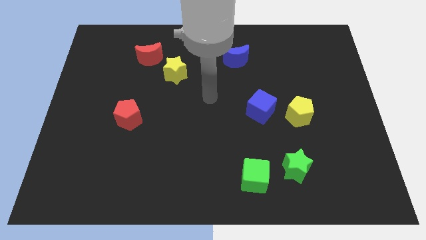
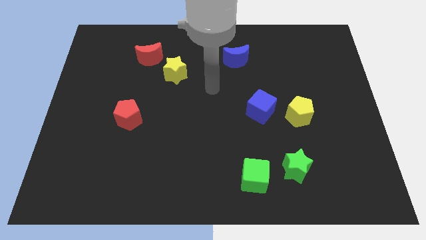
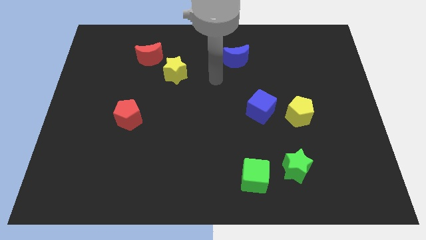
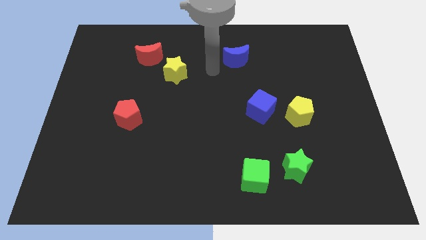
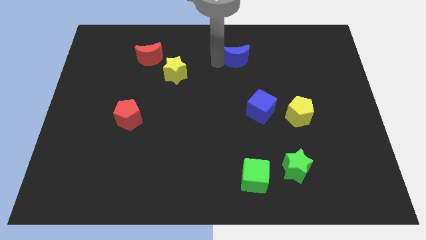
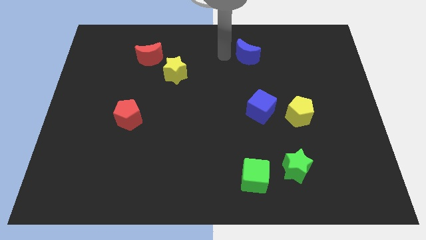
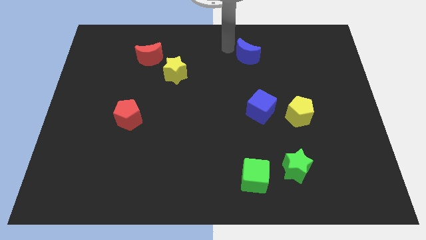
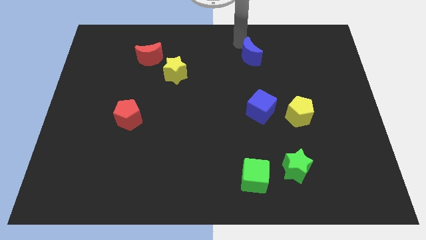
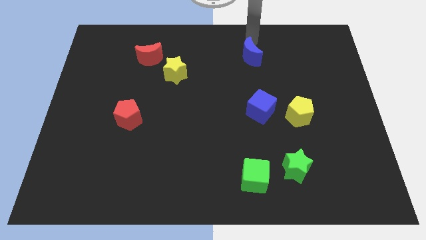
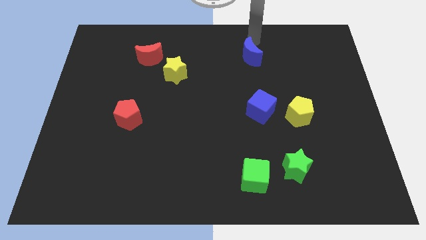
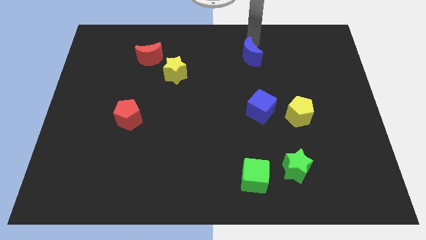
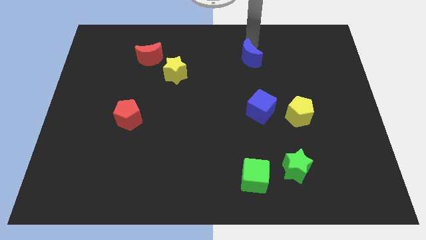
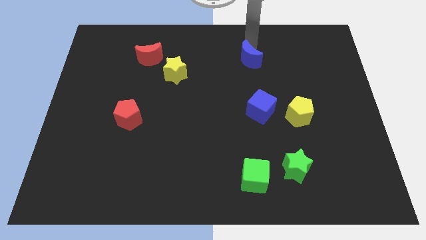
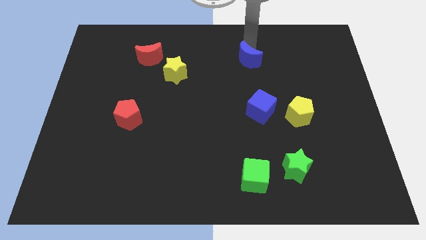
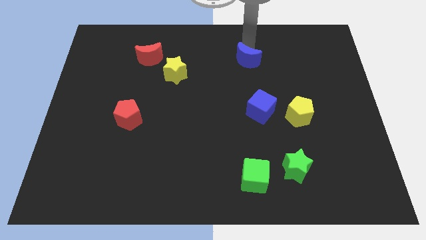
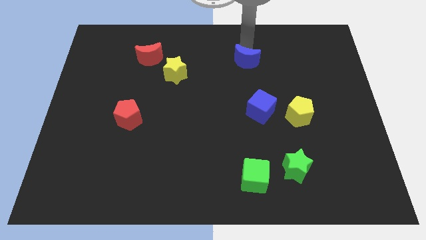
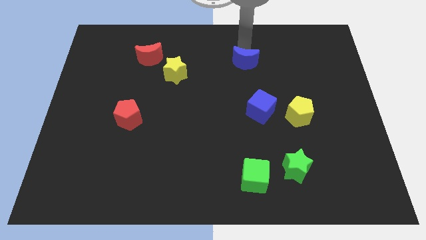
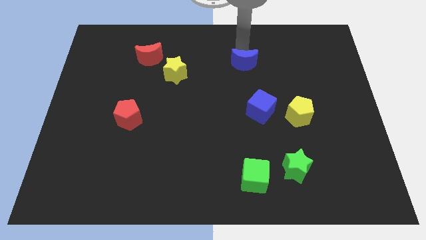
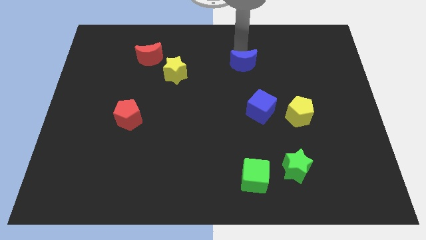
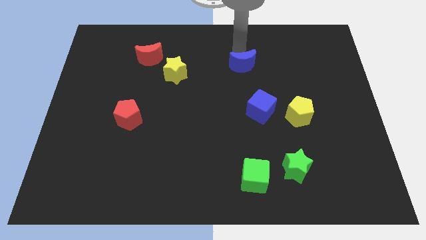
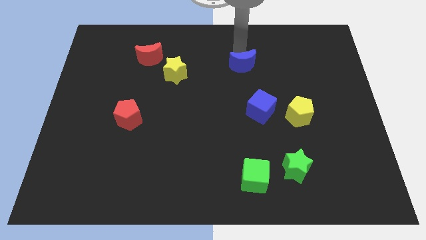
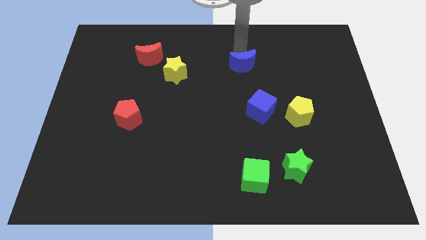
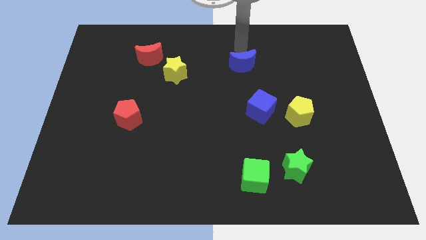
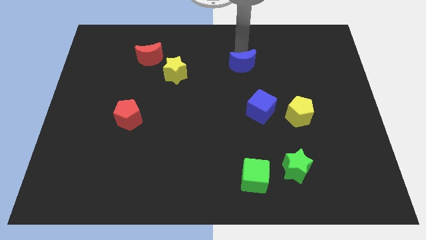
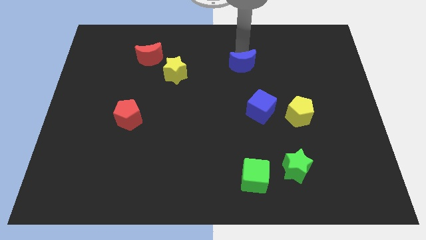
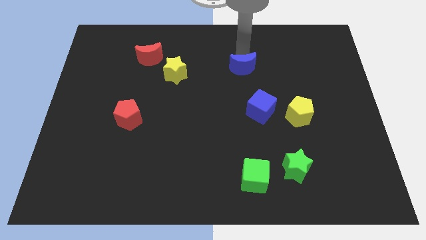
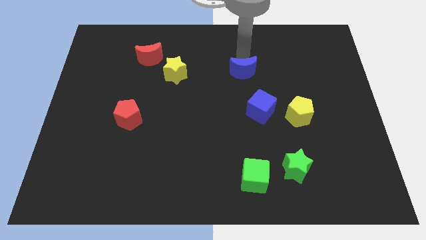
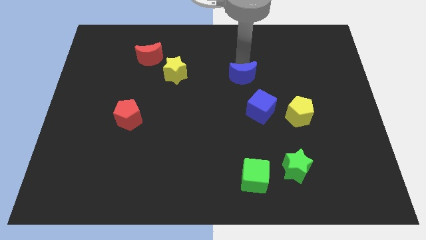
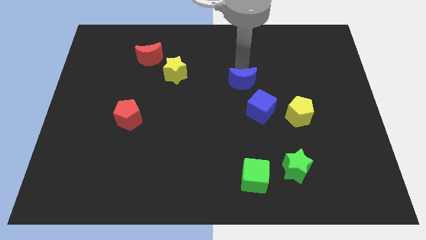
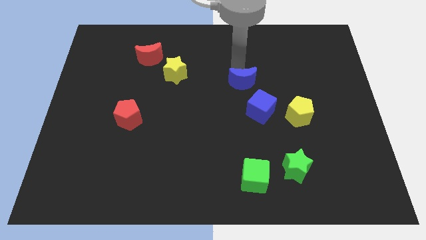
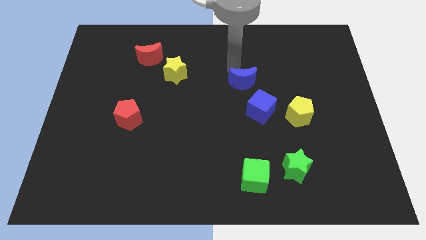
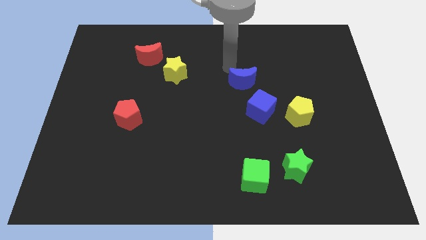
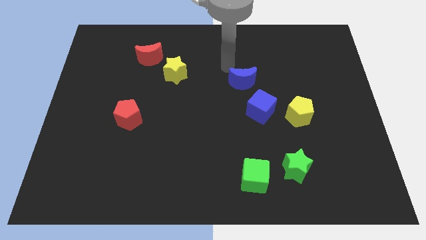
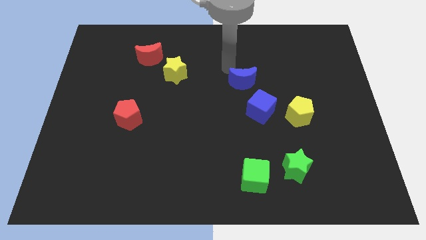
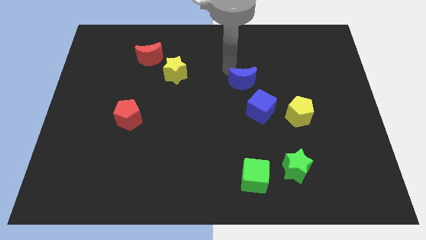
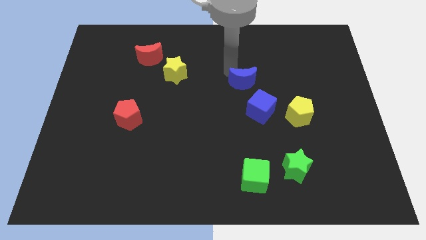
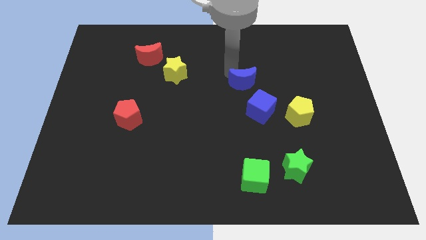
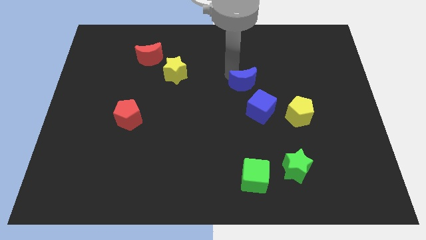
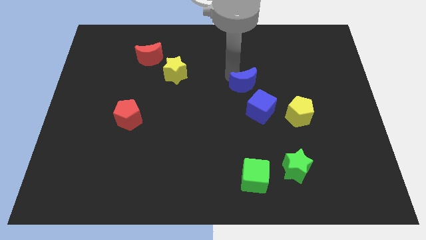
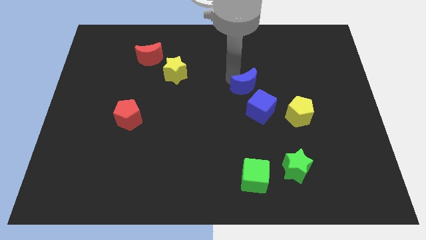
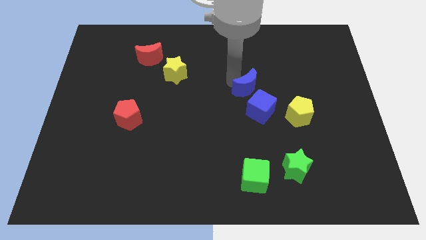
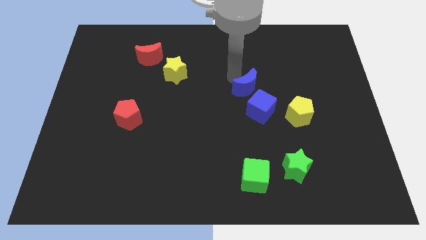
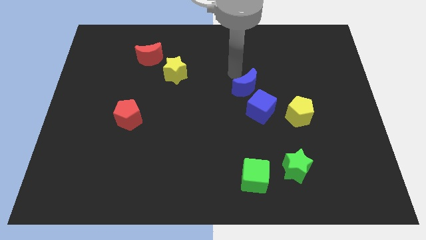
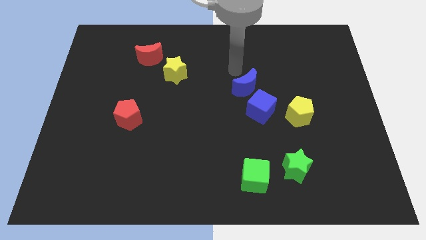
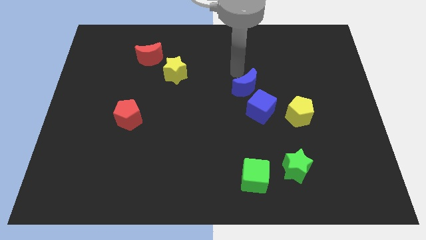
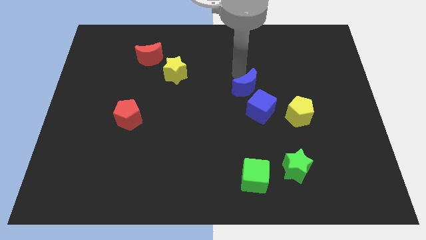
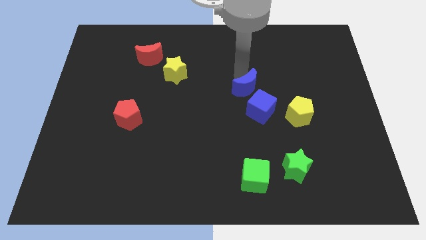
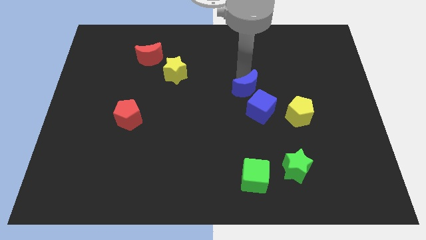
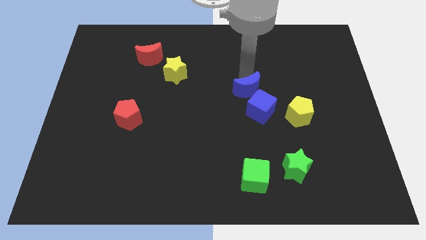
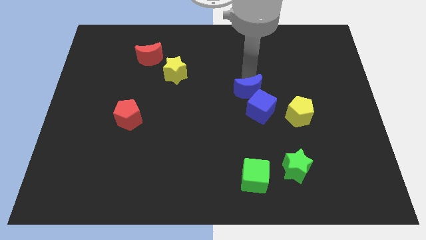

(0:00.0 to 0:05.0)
move the blue moon next to the blue cube

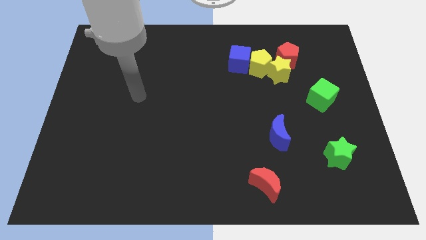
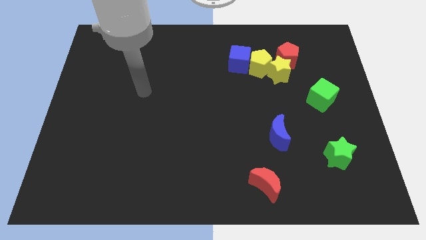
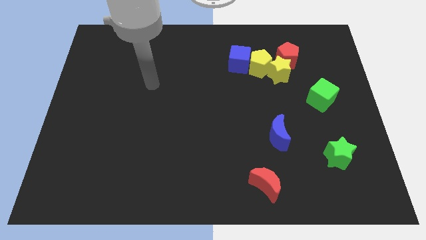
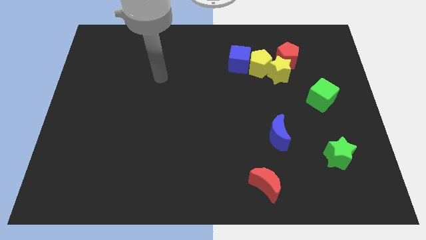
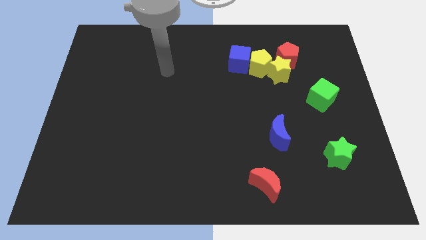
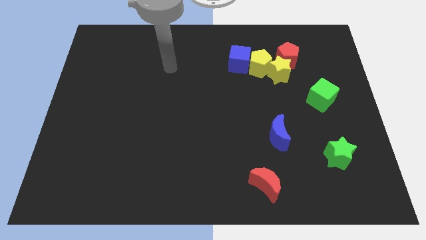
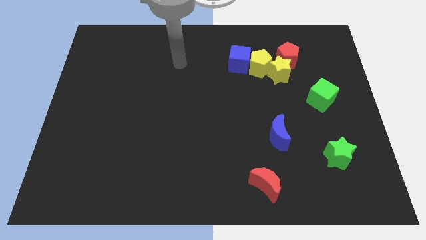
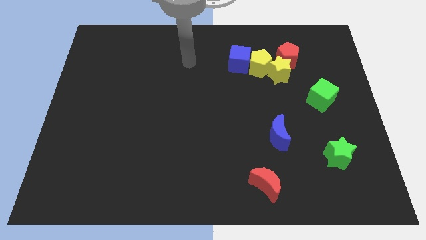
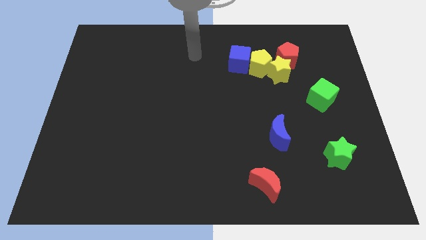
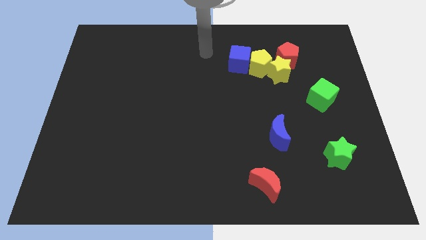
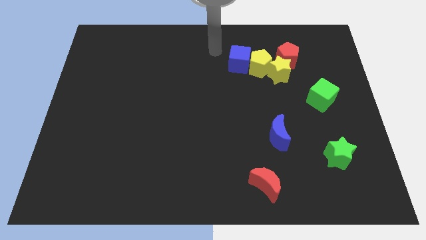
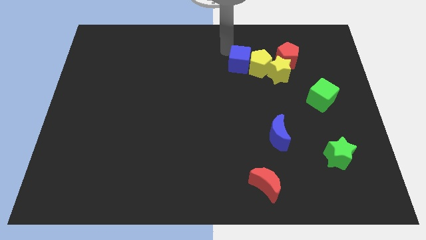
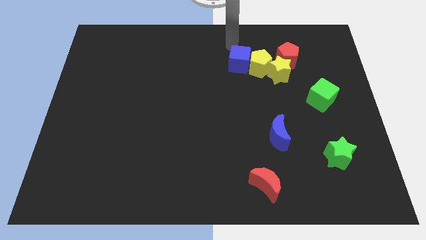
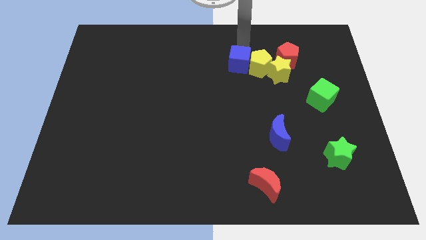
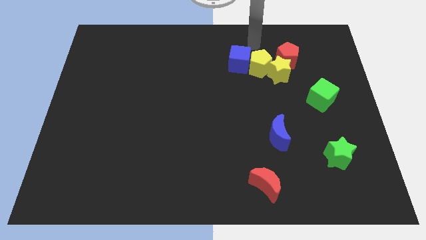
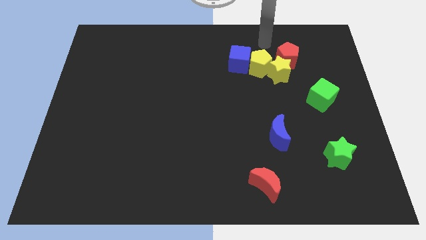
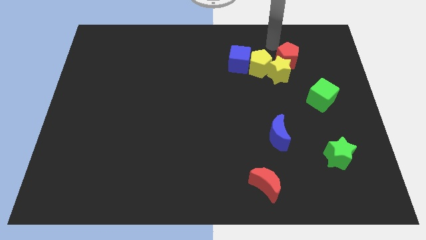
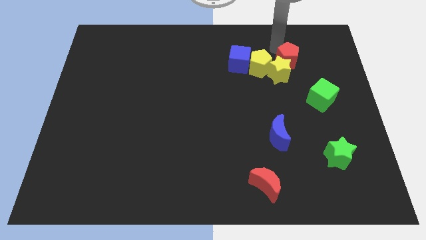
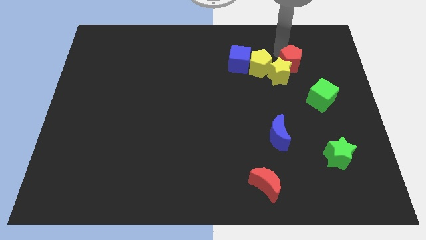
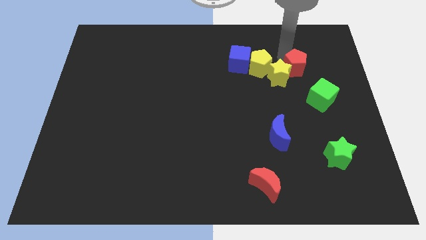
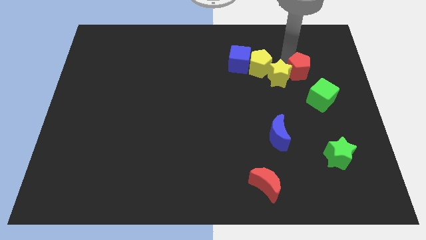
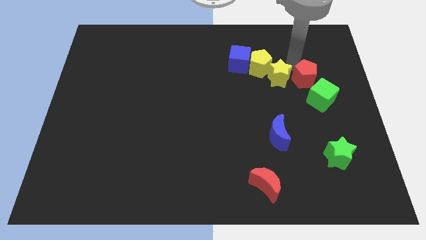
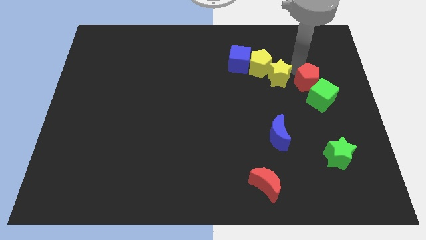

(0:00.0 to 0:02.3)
move the red pentagon towards the green cube

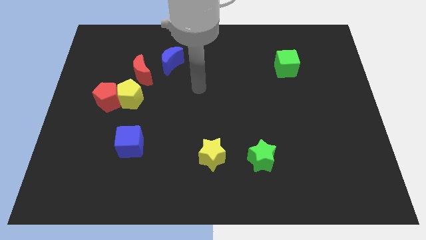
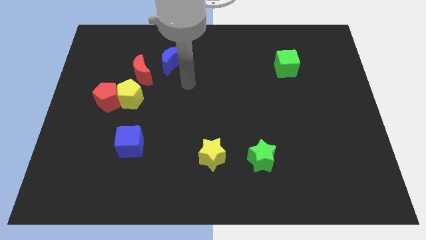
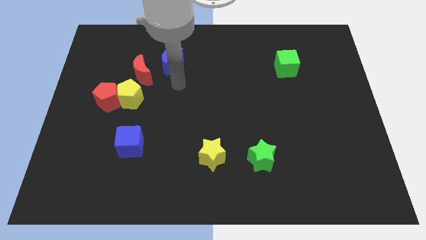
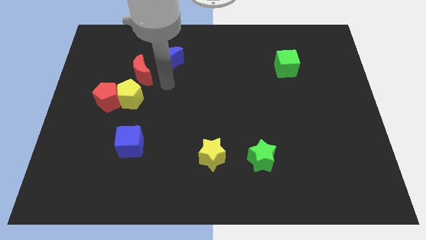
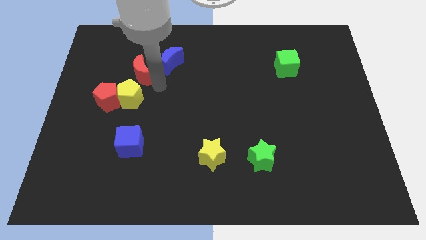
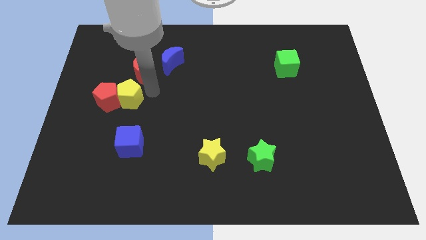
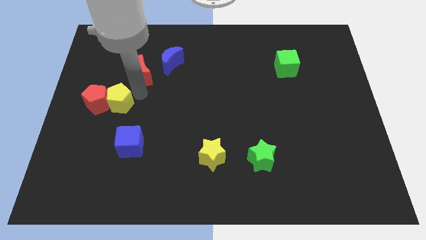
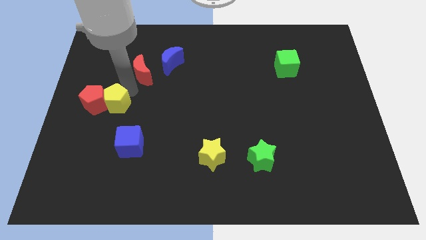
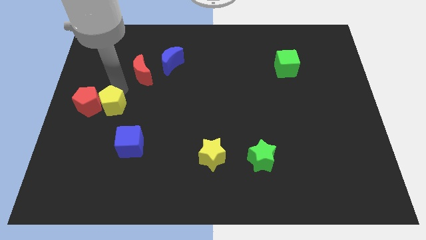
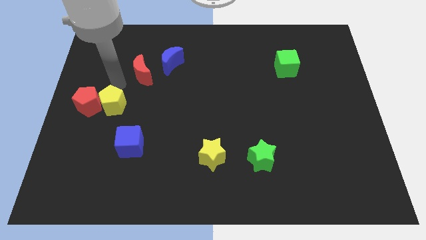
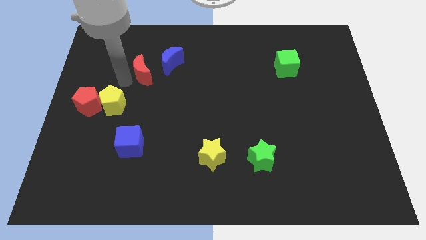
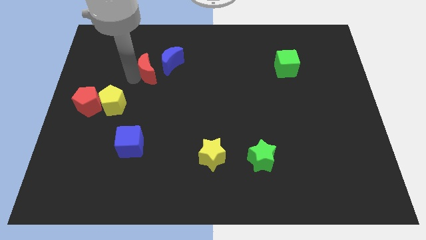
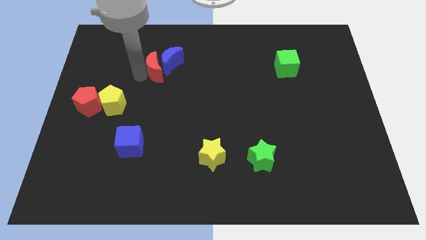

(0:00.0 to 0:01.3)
slide the red moon next to the blue moon
